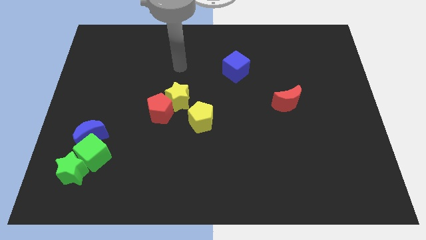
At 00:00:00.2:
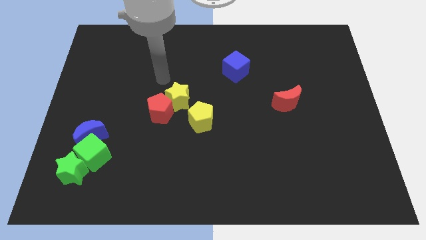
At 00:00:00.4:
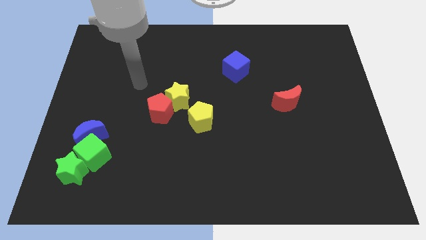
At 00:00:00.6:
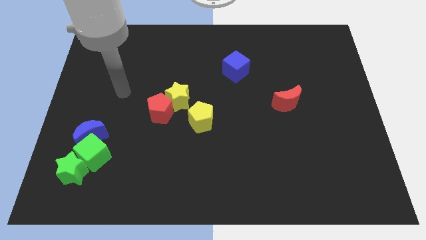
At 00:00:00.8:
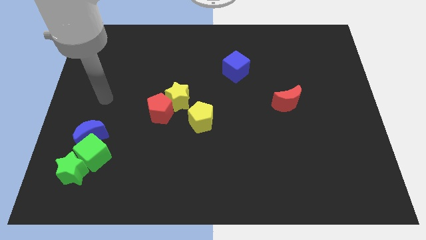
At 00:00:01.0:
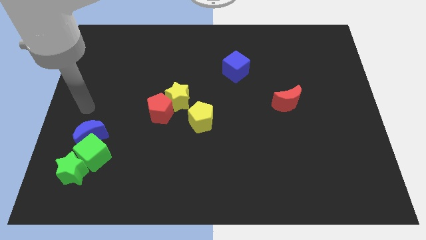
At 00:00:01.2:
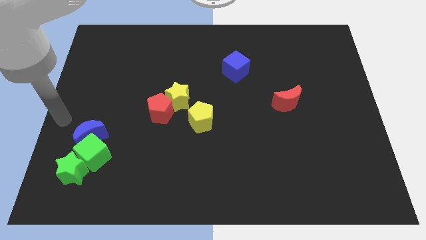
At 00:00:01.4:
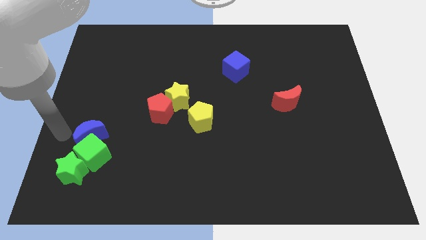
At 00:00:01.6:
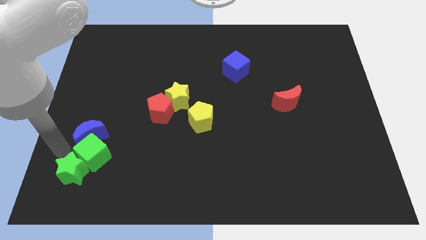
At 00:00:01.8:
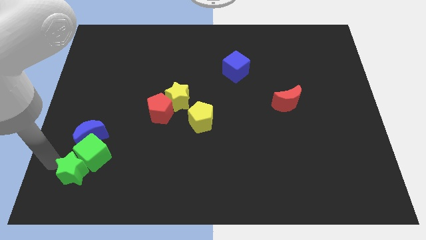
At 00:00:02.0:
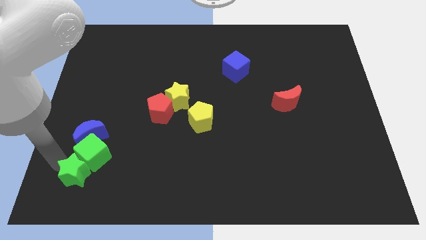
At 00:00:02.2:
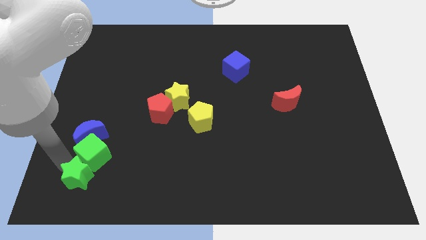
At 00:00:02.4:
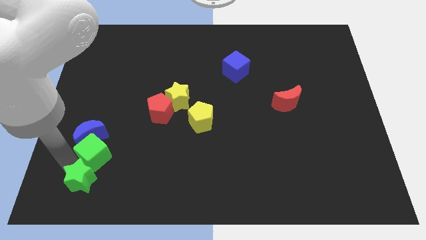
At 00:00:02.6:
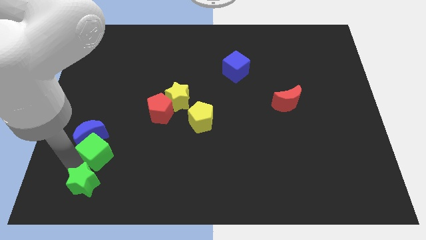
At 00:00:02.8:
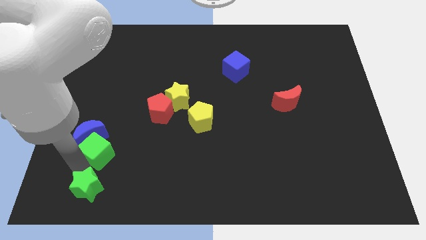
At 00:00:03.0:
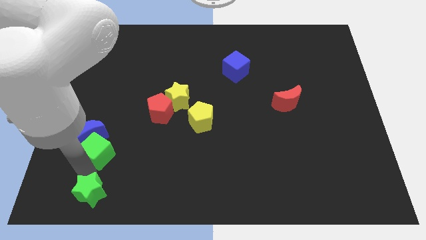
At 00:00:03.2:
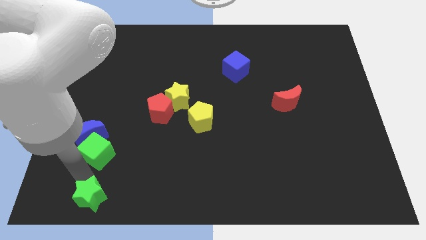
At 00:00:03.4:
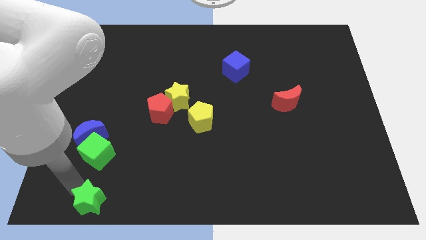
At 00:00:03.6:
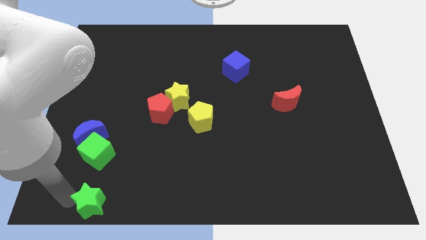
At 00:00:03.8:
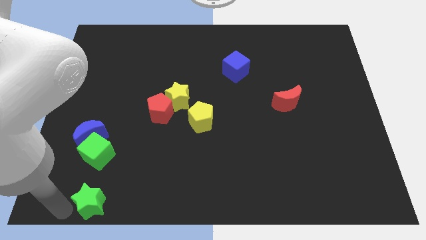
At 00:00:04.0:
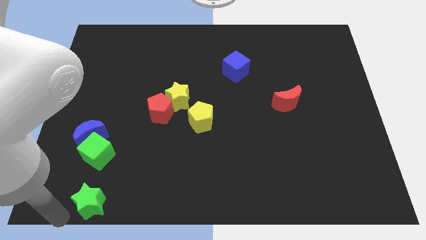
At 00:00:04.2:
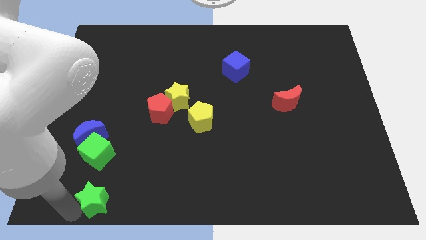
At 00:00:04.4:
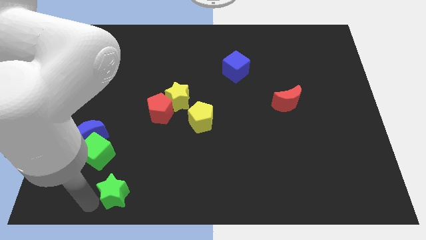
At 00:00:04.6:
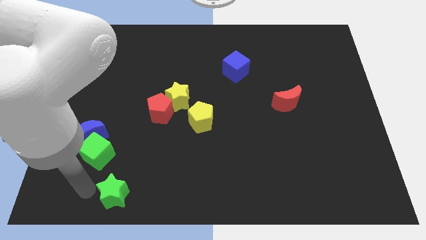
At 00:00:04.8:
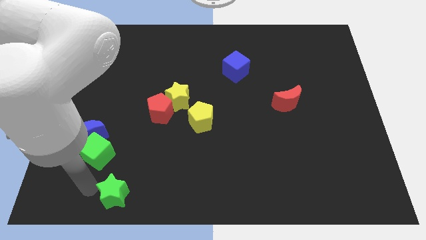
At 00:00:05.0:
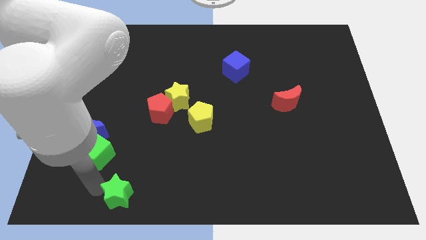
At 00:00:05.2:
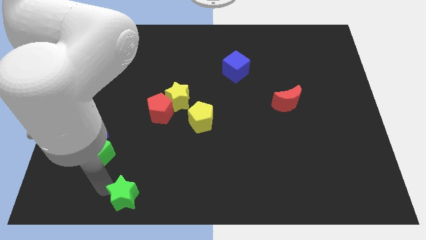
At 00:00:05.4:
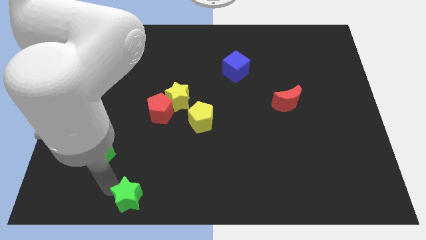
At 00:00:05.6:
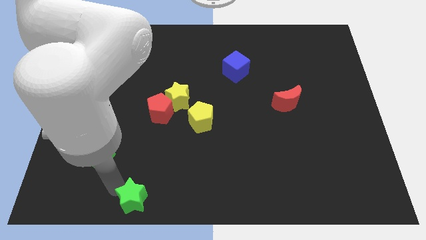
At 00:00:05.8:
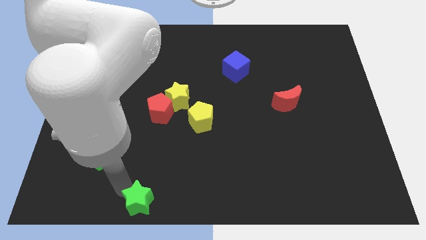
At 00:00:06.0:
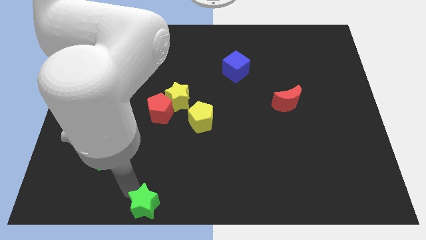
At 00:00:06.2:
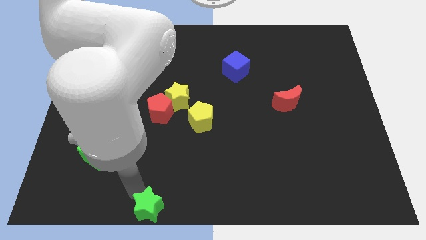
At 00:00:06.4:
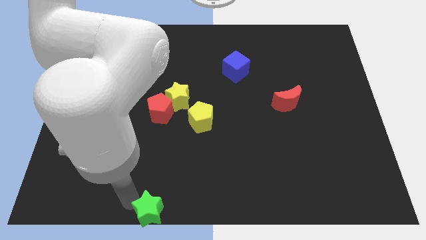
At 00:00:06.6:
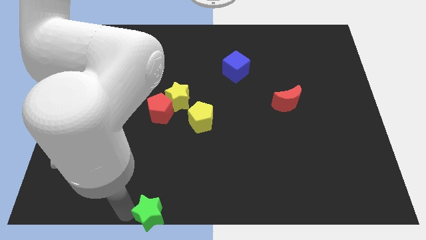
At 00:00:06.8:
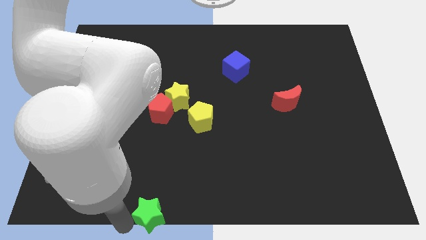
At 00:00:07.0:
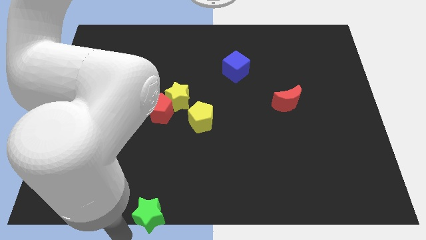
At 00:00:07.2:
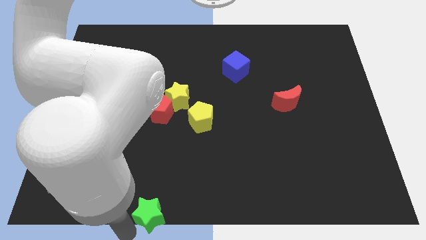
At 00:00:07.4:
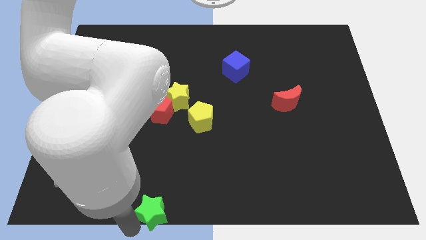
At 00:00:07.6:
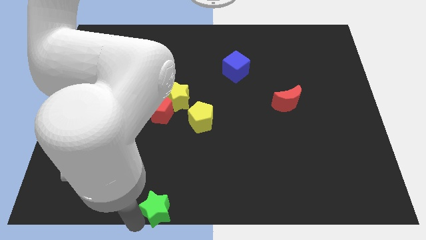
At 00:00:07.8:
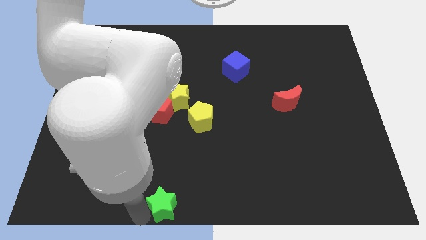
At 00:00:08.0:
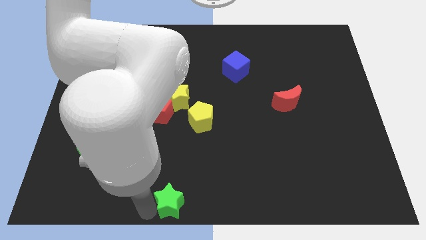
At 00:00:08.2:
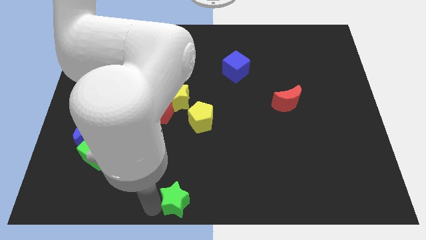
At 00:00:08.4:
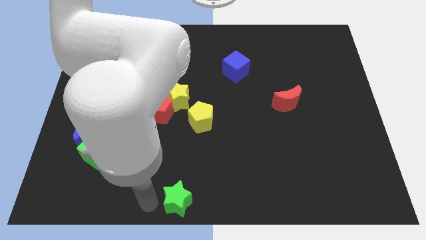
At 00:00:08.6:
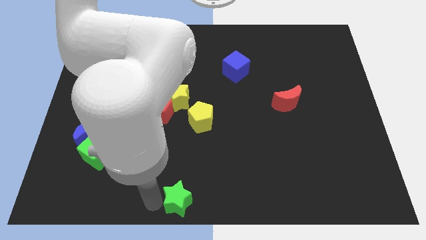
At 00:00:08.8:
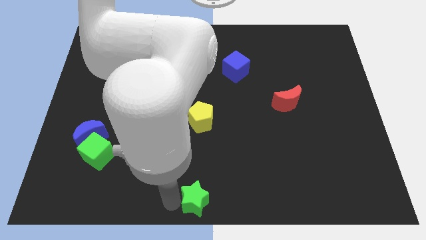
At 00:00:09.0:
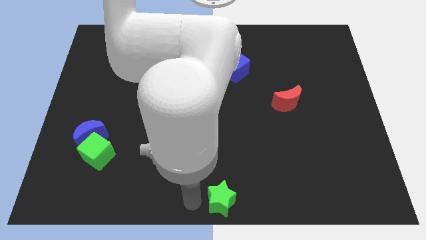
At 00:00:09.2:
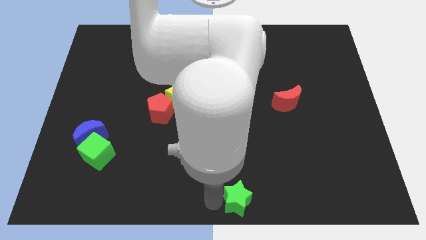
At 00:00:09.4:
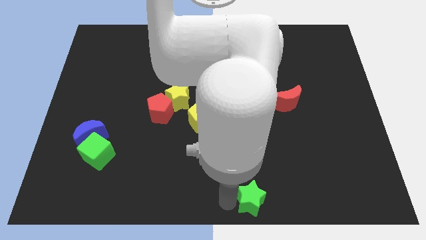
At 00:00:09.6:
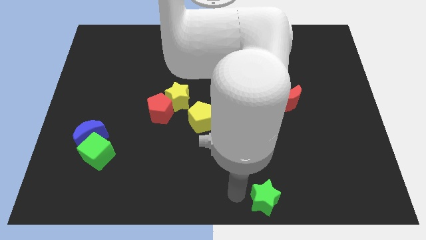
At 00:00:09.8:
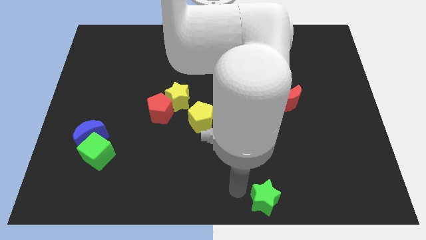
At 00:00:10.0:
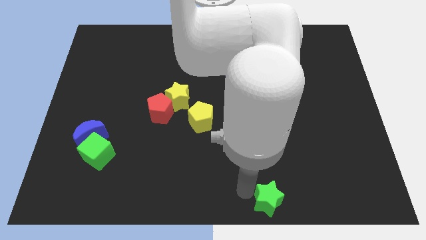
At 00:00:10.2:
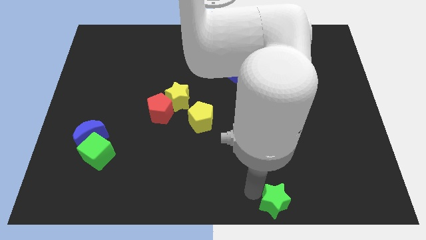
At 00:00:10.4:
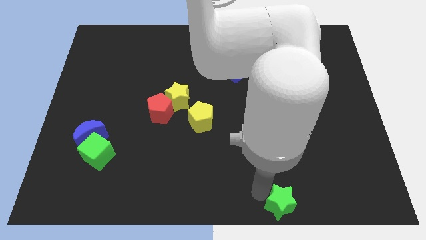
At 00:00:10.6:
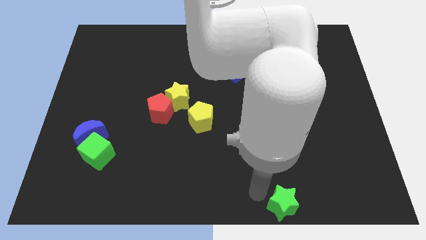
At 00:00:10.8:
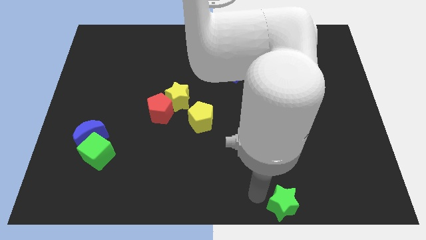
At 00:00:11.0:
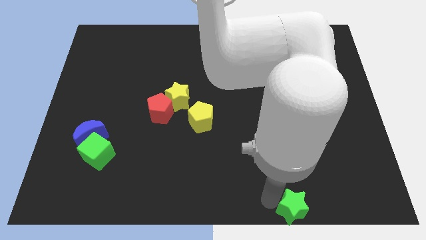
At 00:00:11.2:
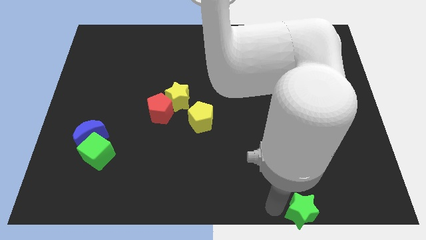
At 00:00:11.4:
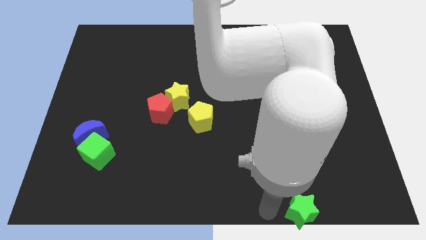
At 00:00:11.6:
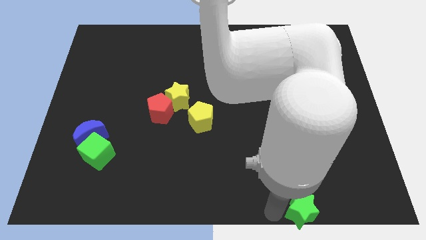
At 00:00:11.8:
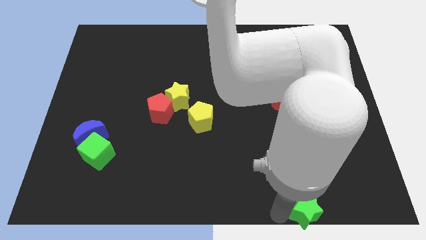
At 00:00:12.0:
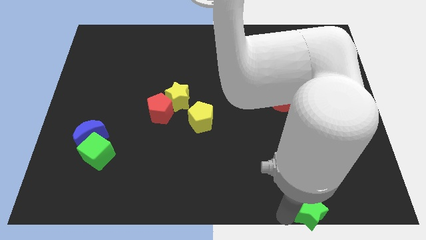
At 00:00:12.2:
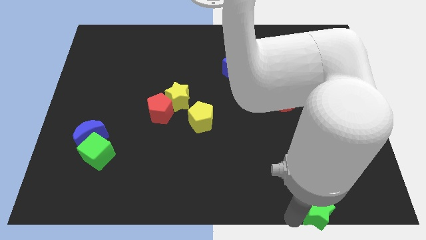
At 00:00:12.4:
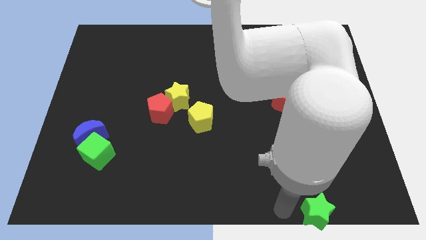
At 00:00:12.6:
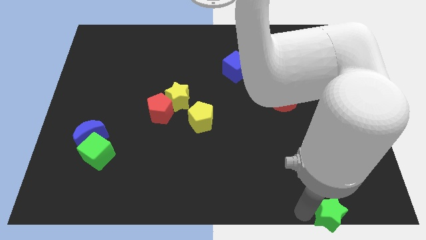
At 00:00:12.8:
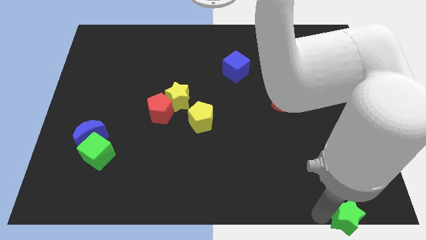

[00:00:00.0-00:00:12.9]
push the green star to the bottom right of the board
